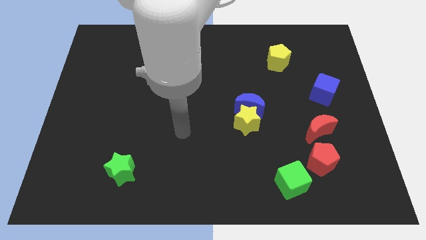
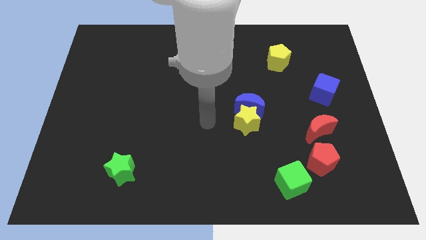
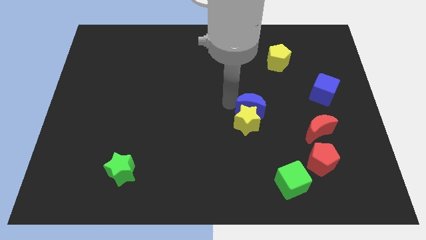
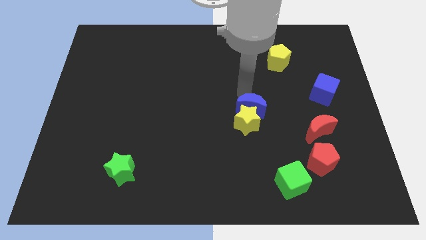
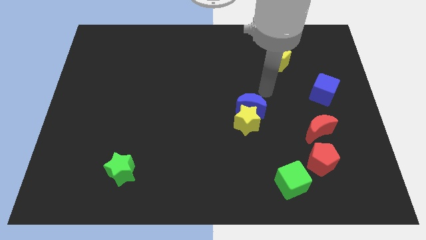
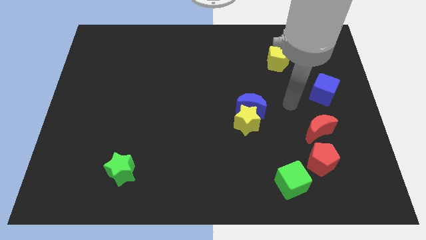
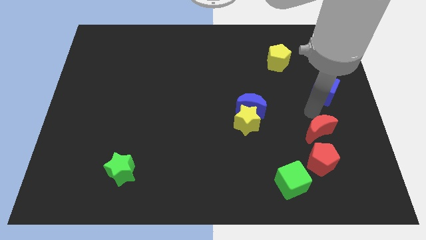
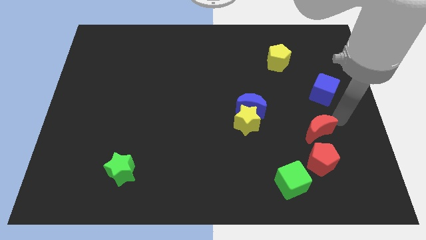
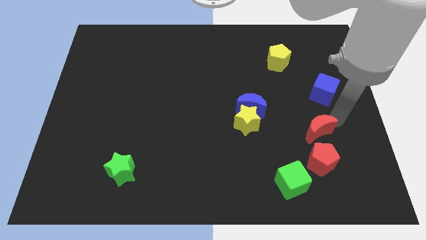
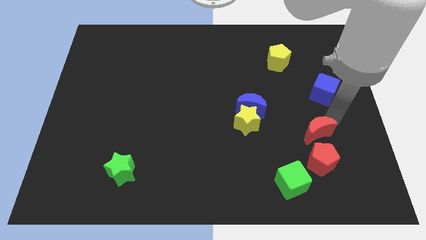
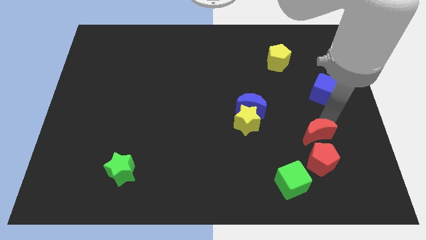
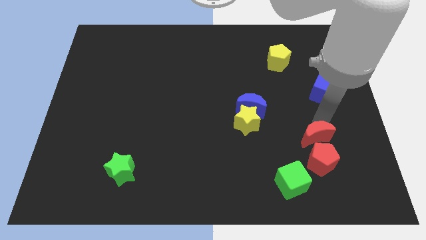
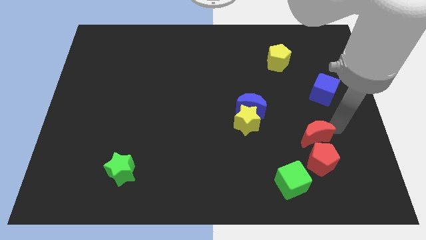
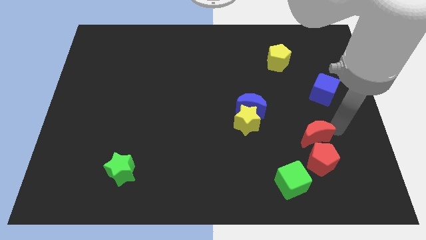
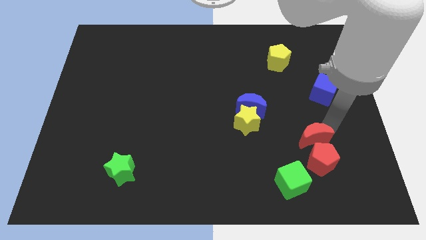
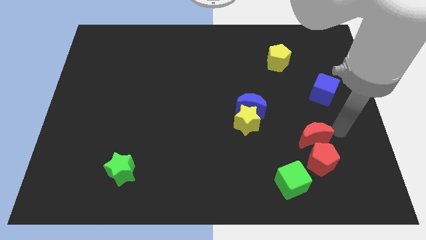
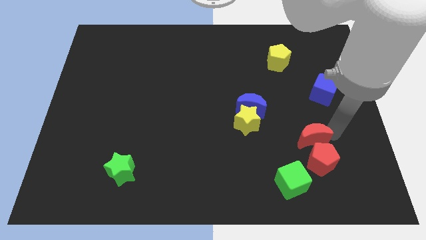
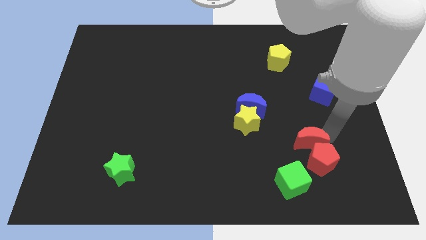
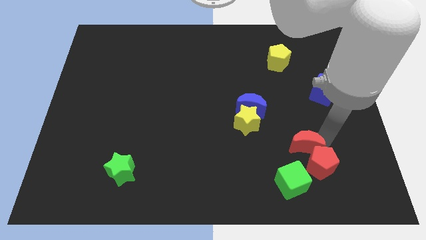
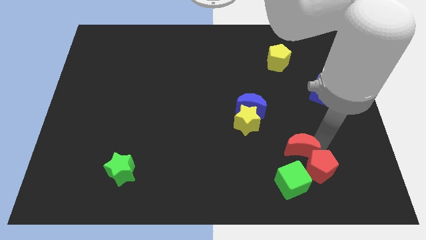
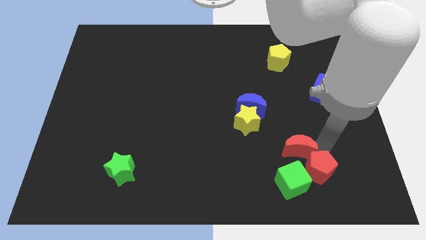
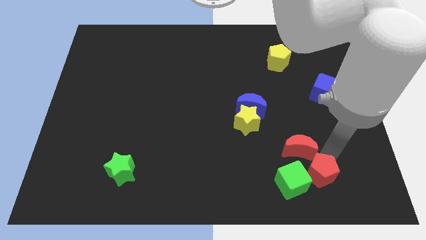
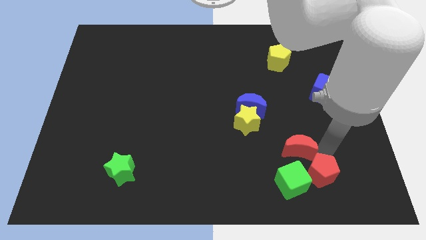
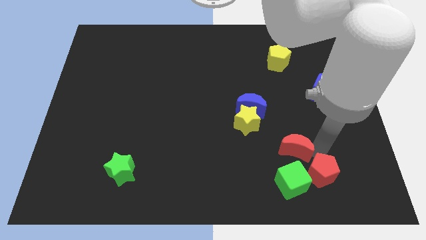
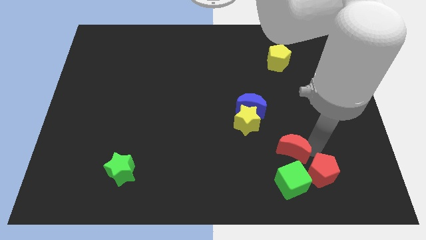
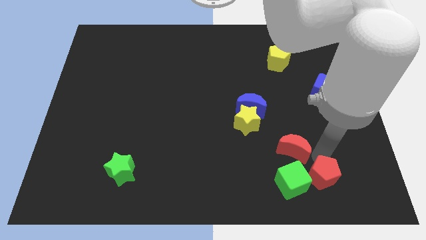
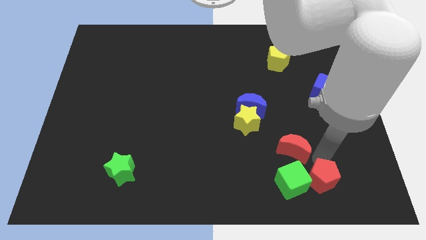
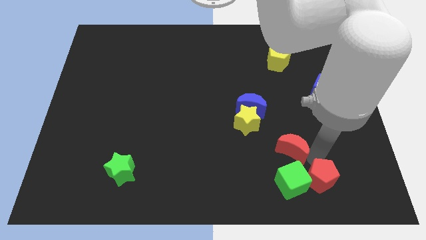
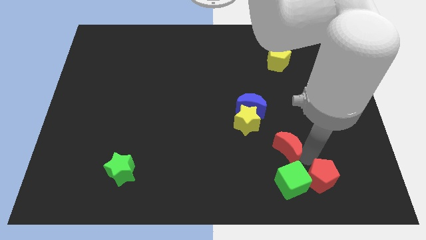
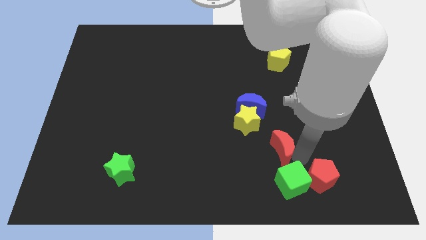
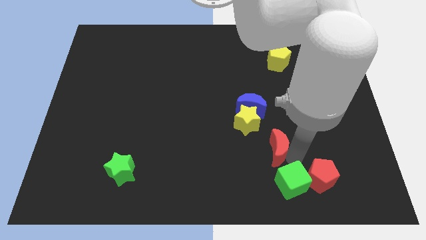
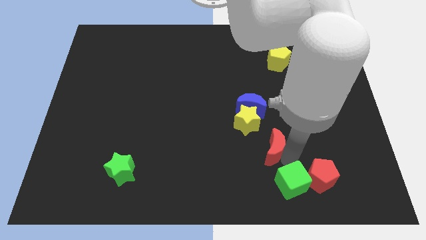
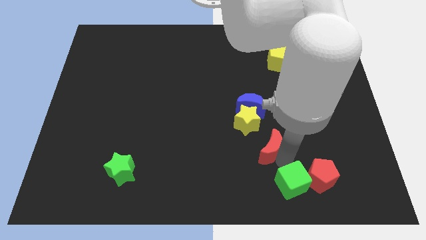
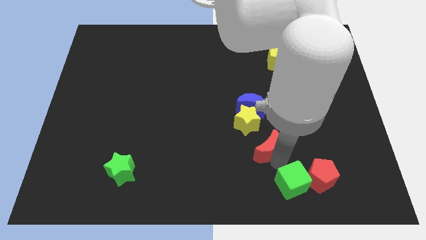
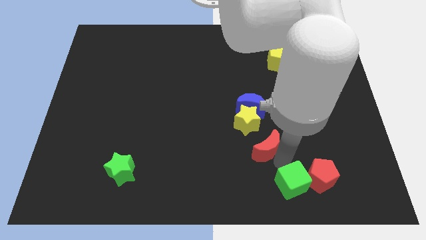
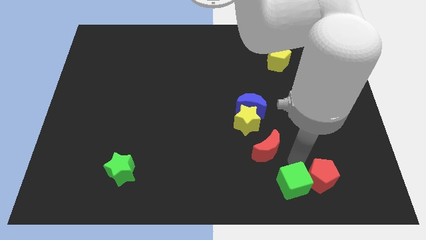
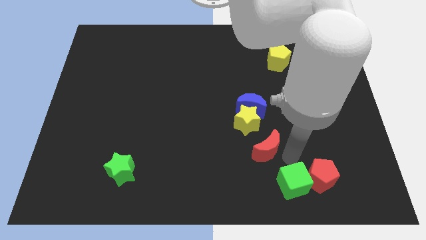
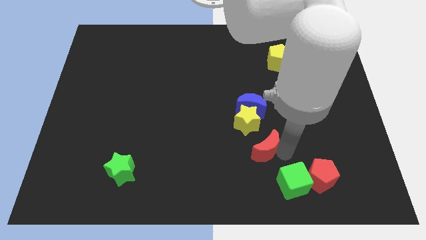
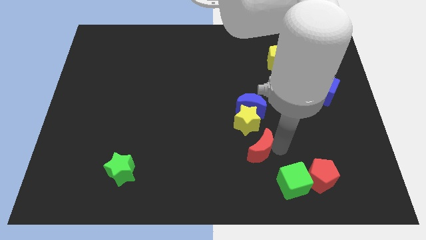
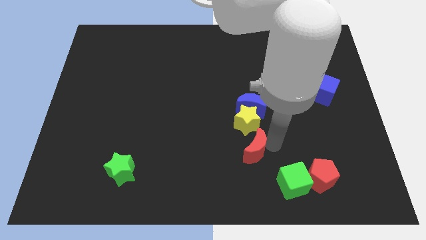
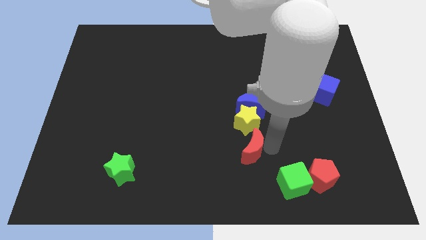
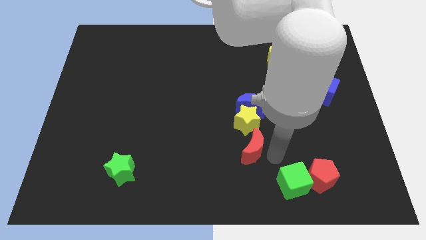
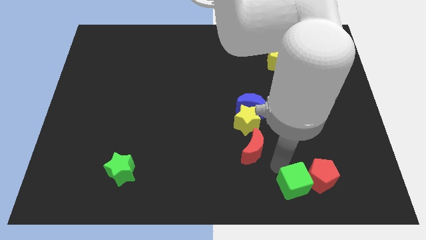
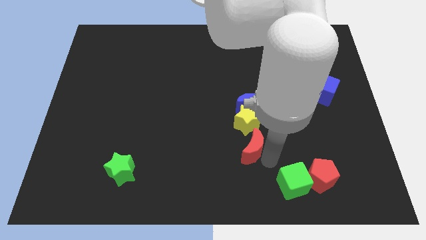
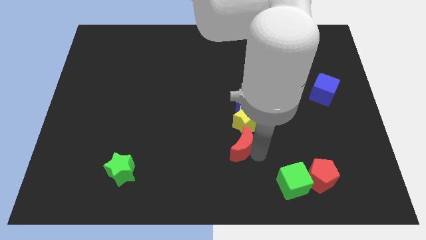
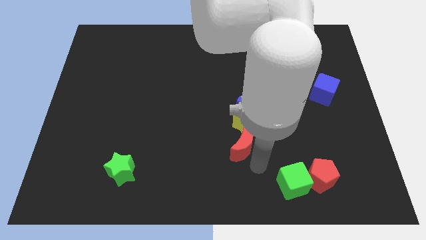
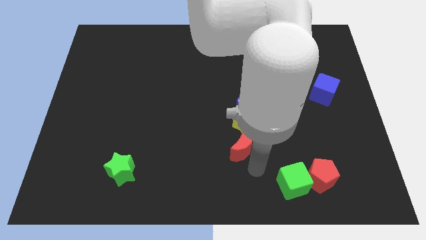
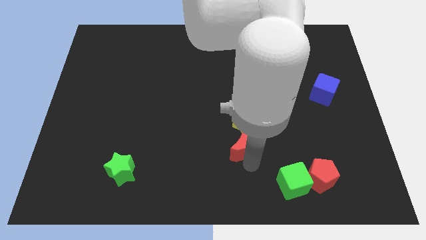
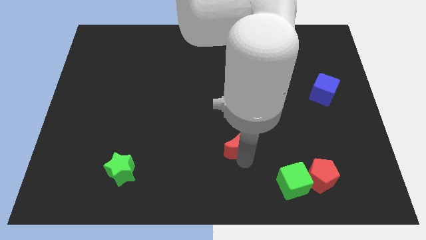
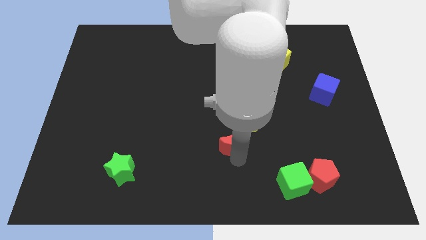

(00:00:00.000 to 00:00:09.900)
push the red moon to the bottom left side of the blue moon

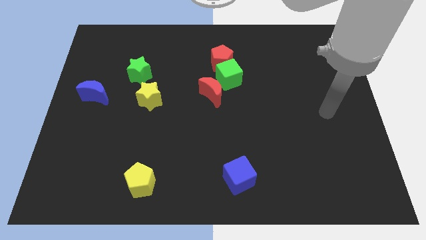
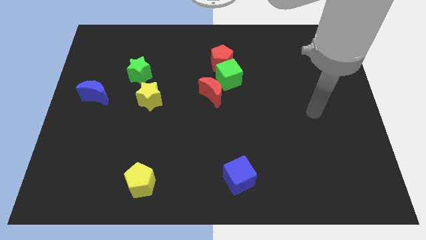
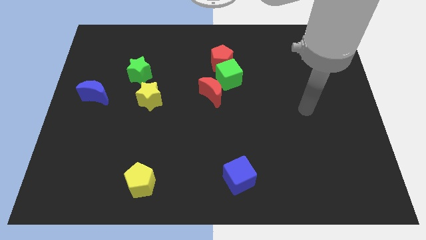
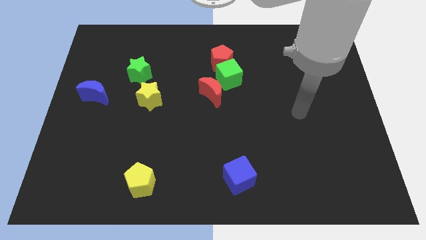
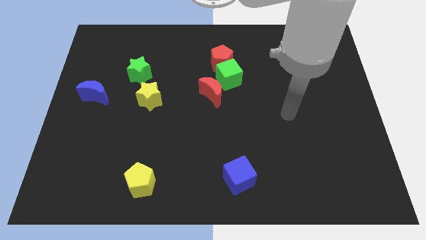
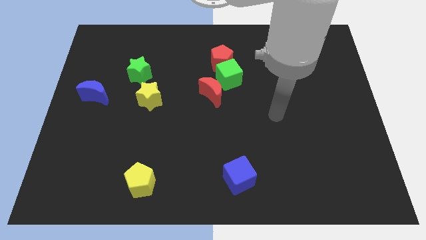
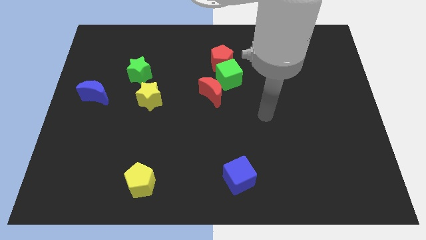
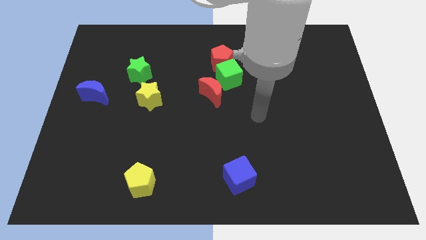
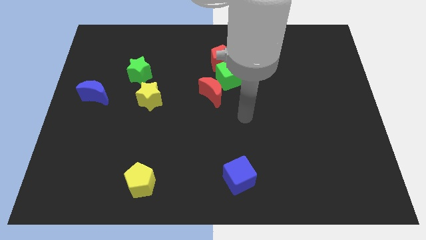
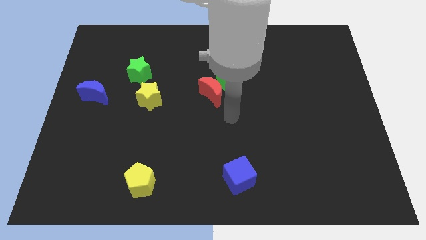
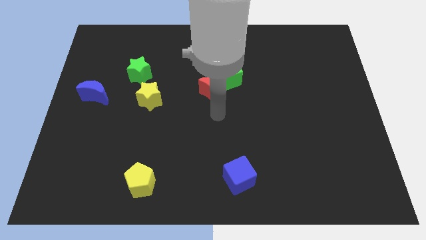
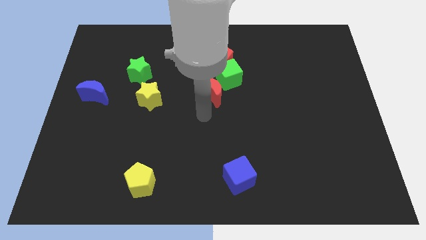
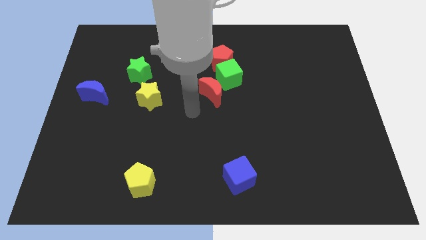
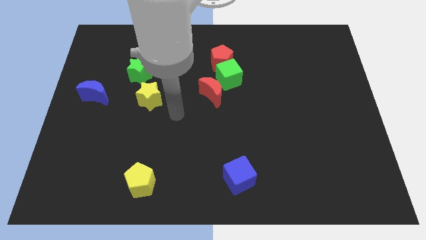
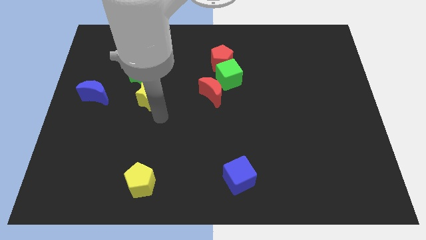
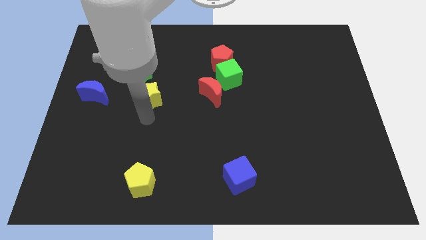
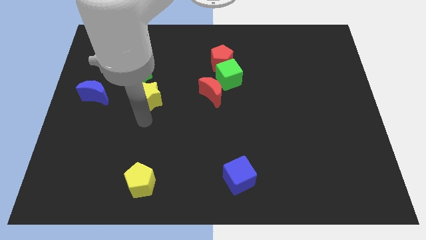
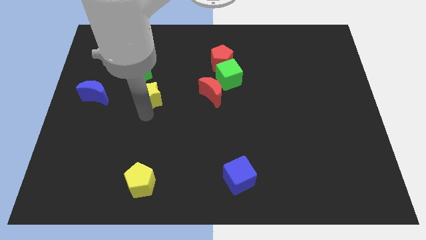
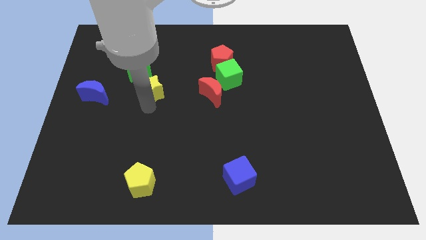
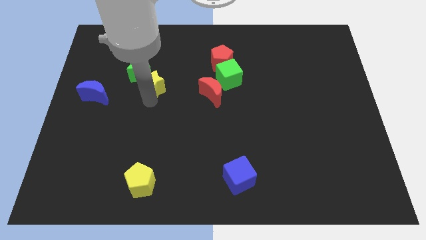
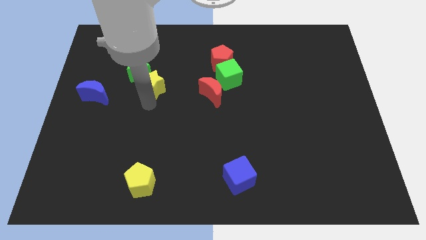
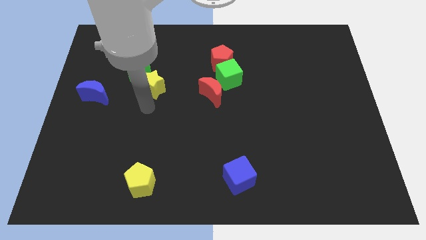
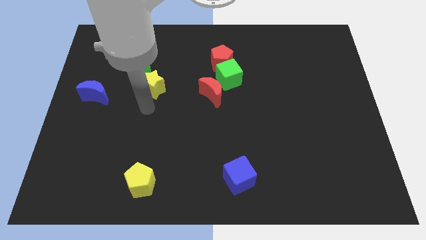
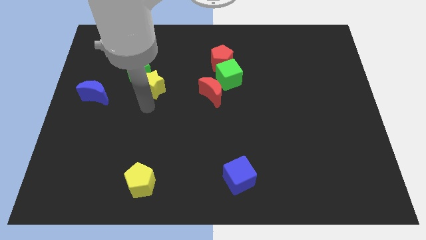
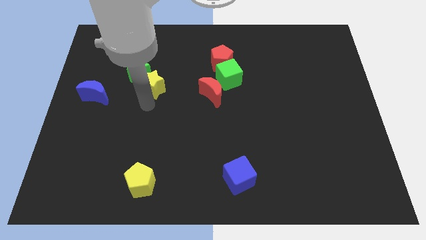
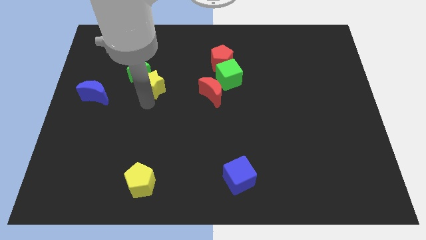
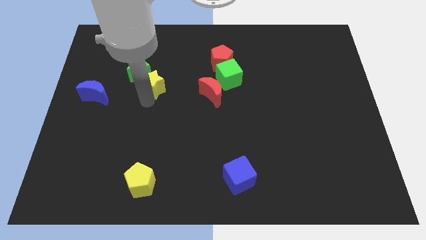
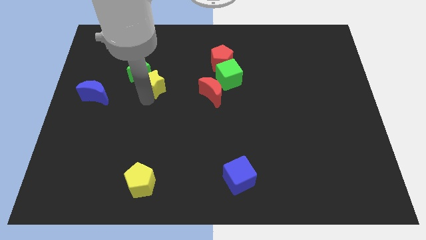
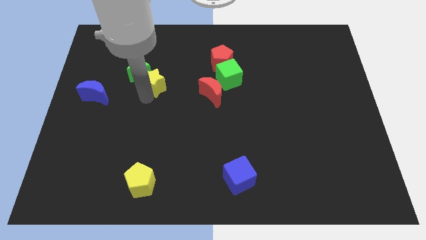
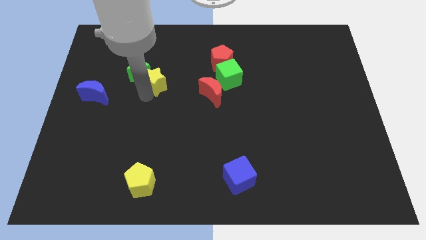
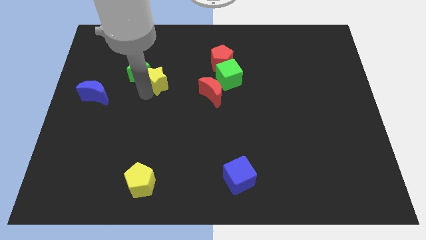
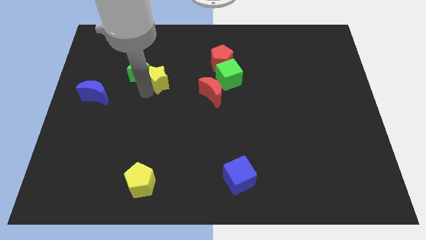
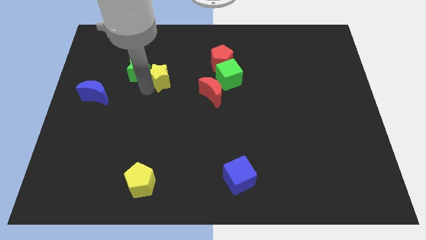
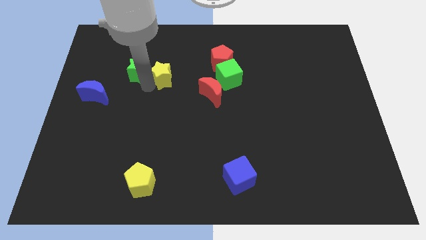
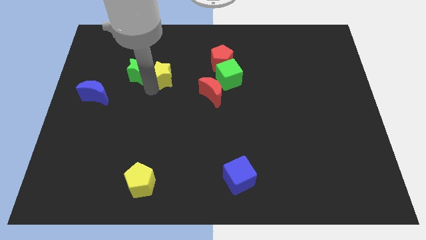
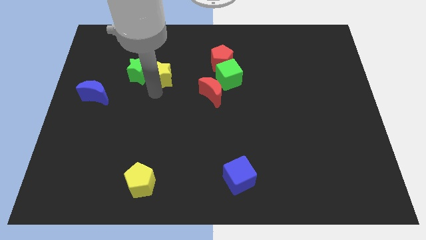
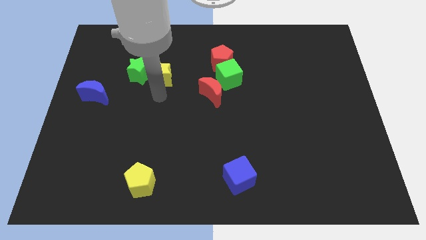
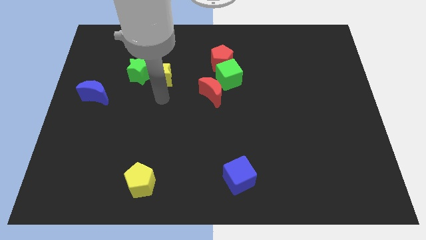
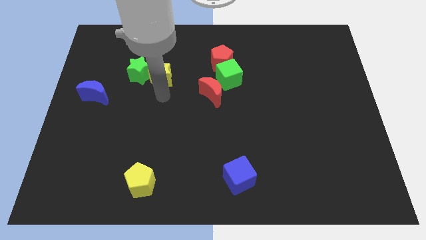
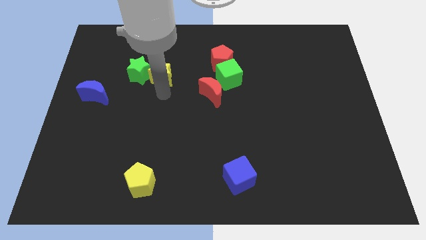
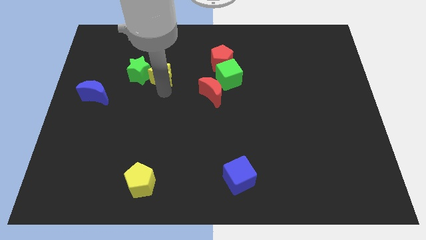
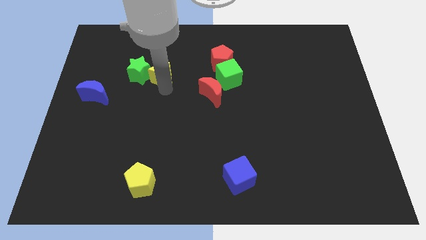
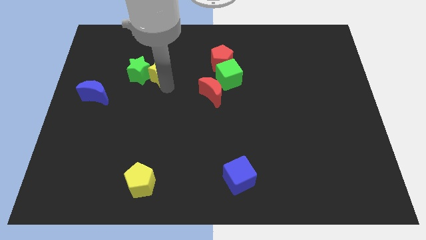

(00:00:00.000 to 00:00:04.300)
put the yellow star to the top right of the green star
